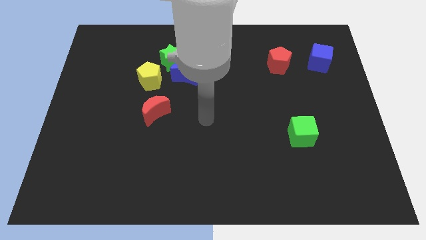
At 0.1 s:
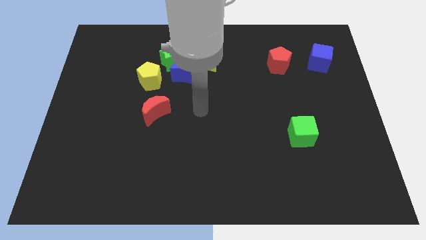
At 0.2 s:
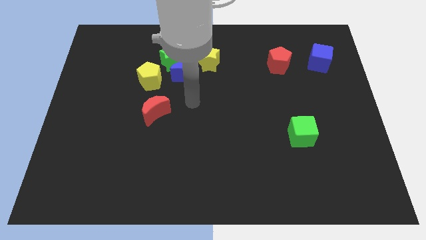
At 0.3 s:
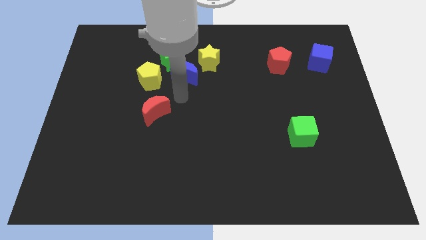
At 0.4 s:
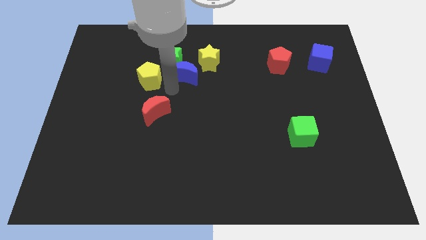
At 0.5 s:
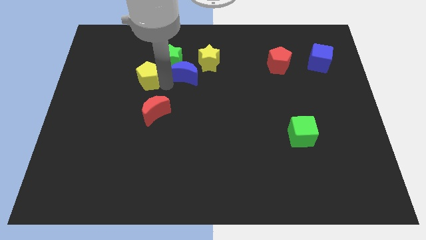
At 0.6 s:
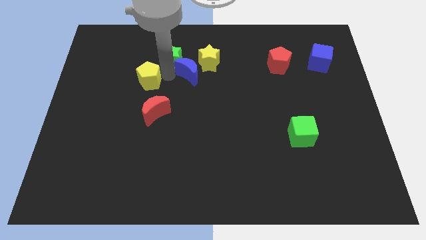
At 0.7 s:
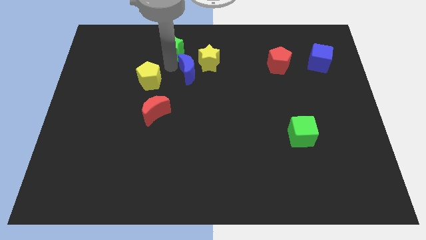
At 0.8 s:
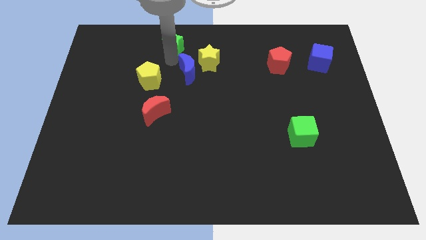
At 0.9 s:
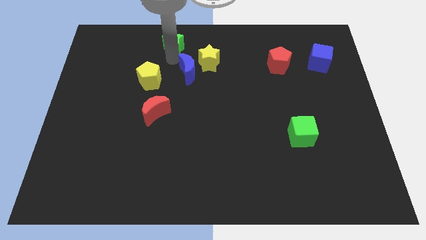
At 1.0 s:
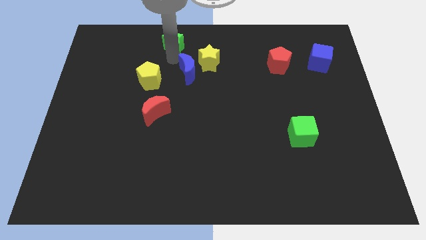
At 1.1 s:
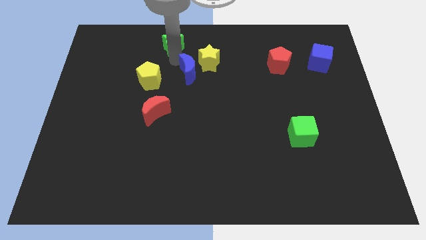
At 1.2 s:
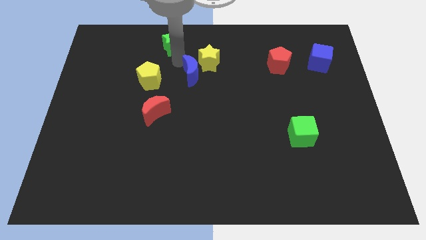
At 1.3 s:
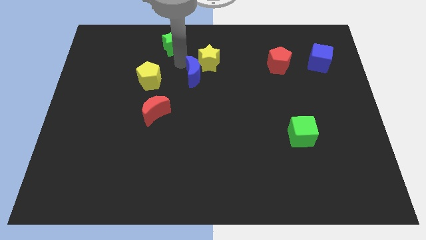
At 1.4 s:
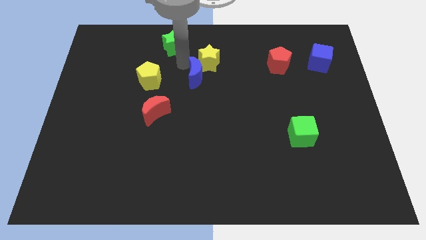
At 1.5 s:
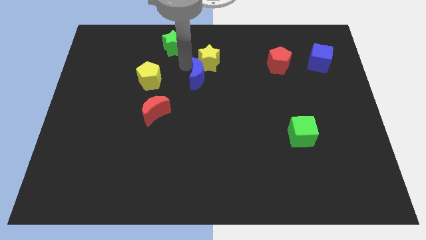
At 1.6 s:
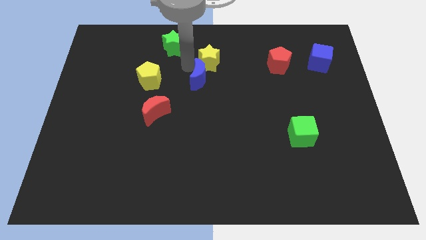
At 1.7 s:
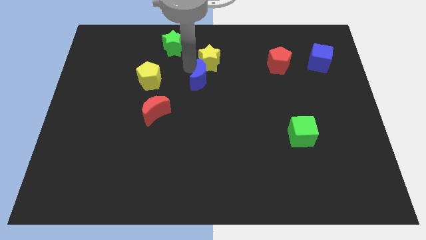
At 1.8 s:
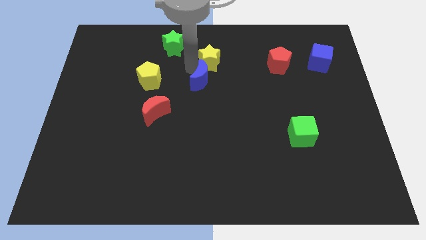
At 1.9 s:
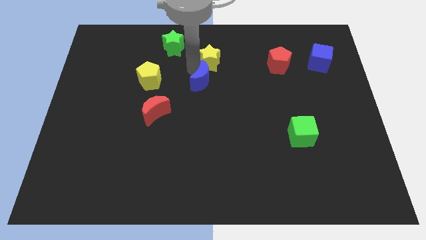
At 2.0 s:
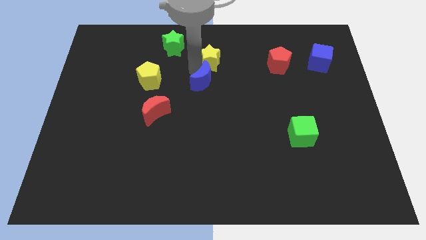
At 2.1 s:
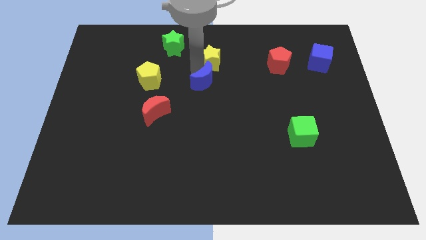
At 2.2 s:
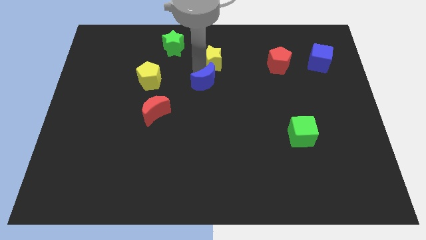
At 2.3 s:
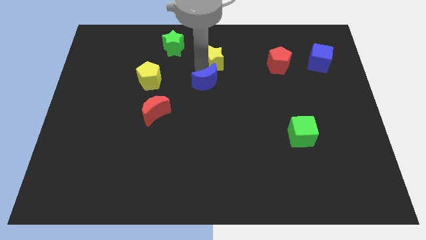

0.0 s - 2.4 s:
pull the blue moon apart from the group

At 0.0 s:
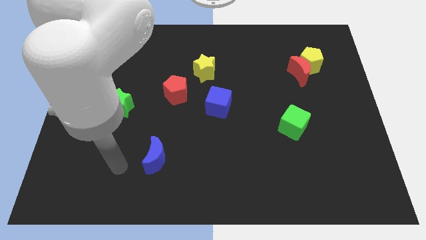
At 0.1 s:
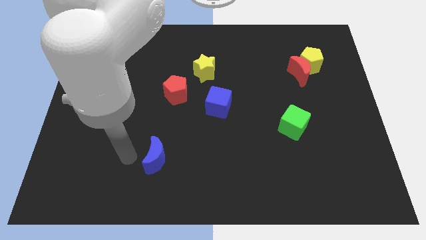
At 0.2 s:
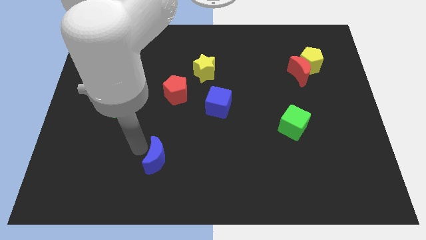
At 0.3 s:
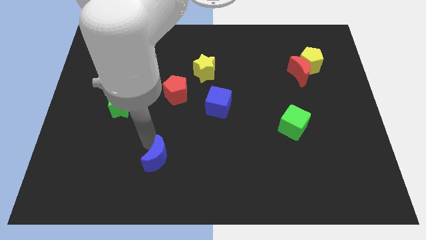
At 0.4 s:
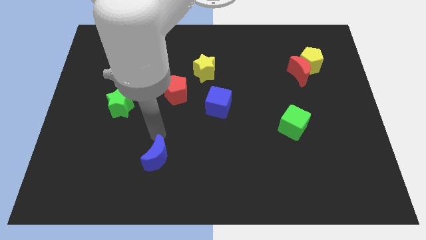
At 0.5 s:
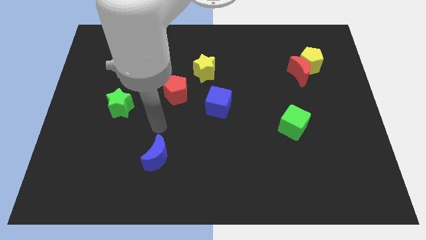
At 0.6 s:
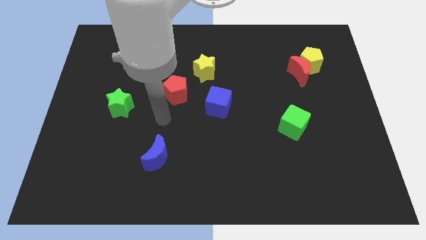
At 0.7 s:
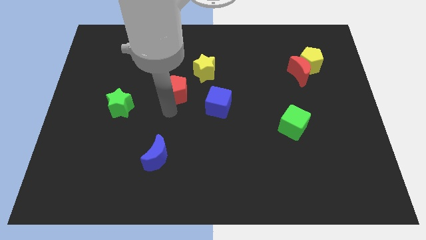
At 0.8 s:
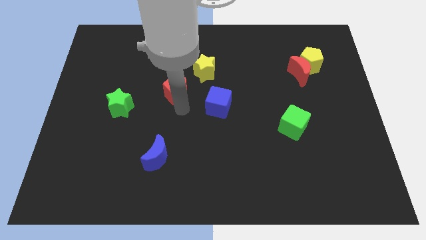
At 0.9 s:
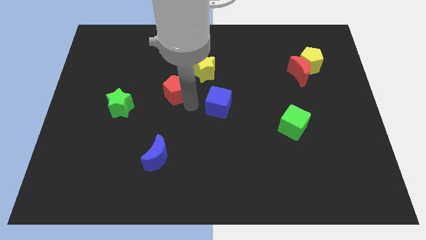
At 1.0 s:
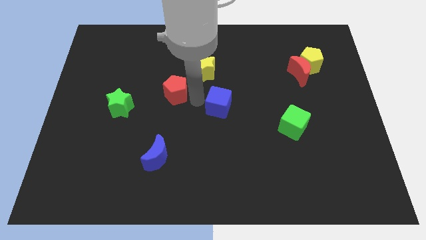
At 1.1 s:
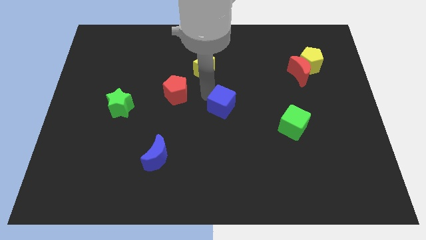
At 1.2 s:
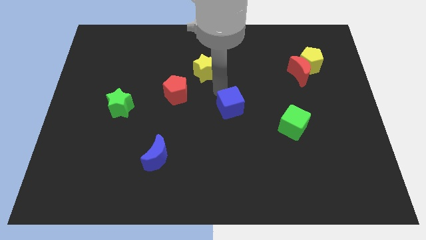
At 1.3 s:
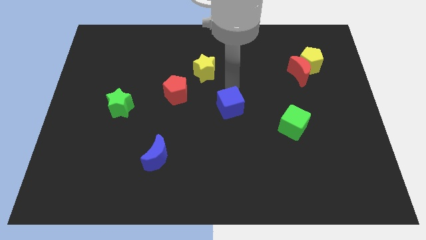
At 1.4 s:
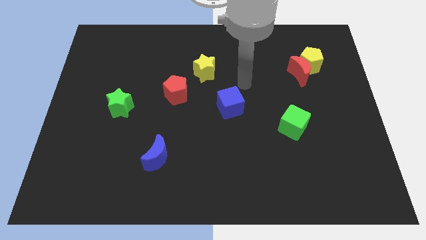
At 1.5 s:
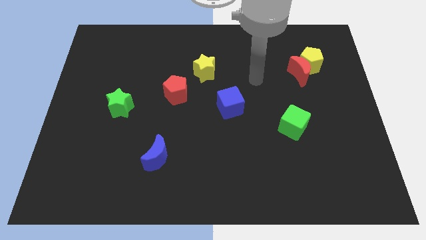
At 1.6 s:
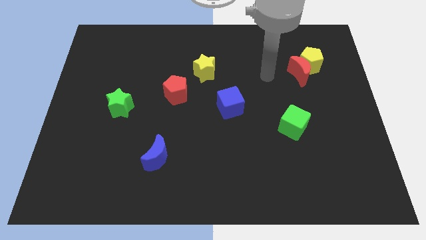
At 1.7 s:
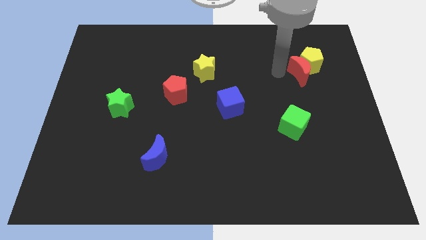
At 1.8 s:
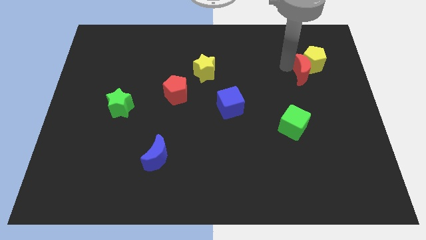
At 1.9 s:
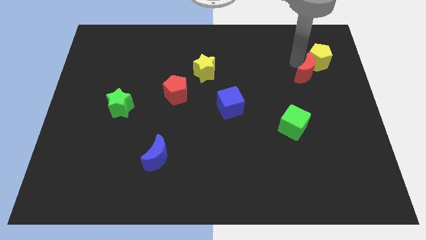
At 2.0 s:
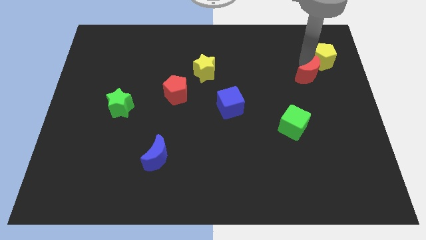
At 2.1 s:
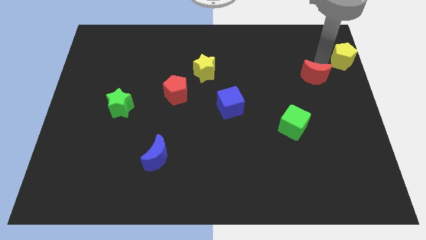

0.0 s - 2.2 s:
move the red moon away from the yellow pentagon

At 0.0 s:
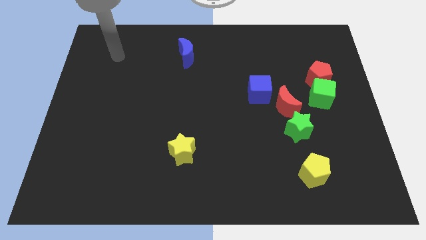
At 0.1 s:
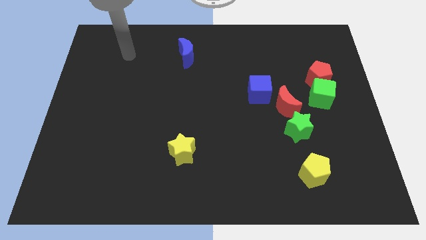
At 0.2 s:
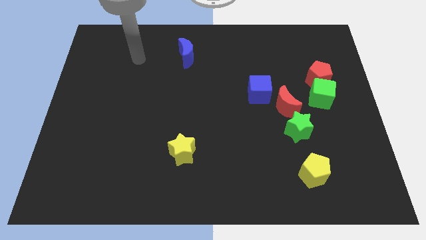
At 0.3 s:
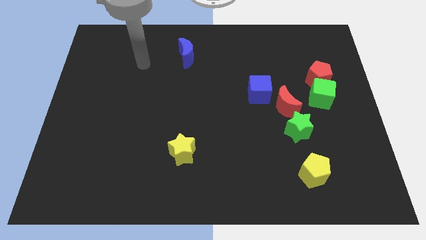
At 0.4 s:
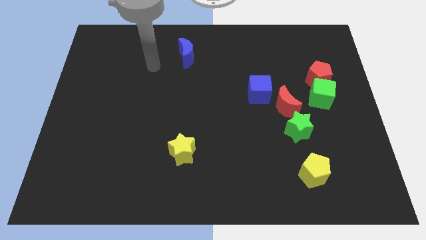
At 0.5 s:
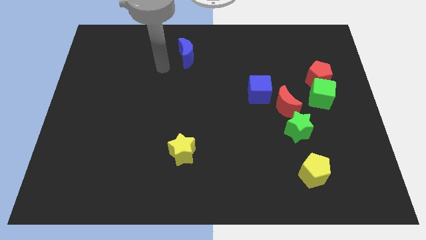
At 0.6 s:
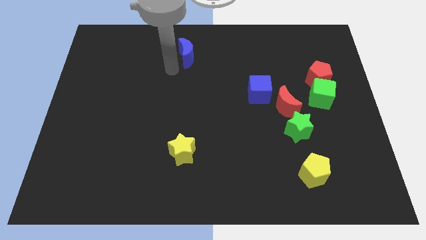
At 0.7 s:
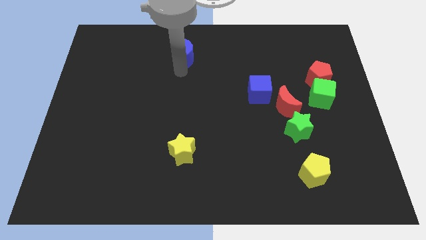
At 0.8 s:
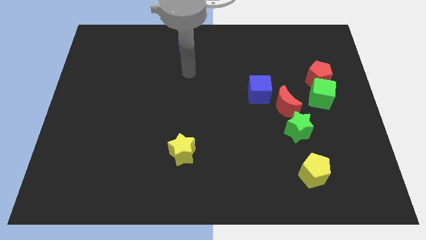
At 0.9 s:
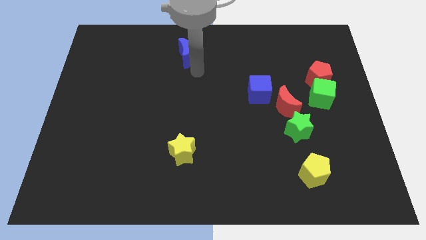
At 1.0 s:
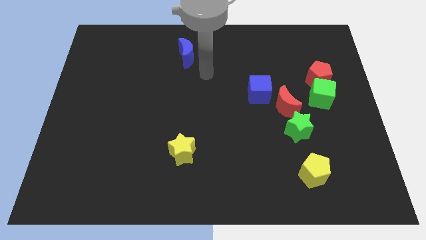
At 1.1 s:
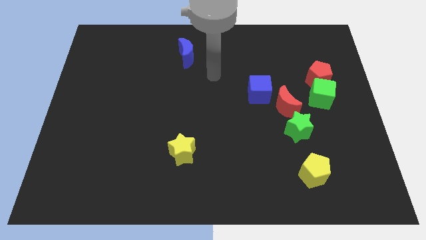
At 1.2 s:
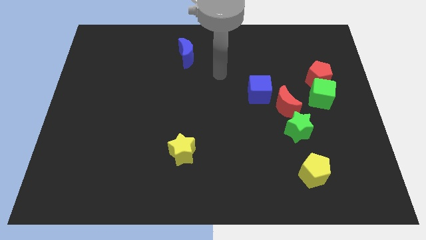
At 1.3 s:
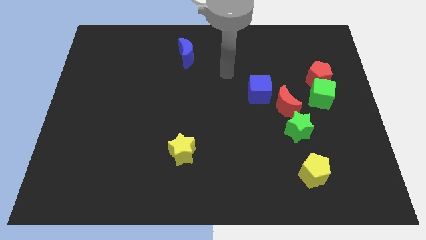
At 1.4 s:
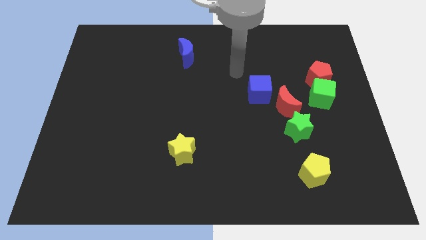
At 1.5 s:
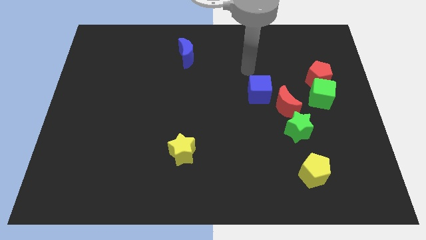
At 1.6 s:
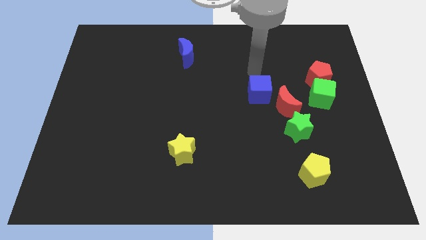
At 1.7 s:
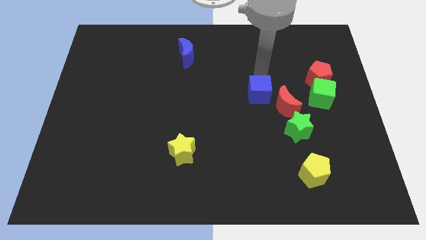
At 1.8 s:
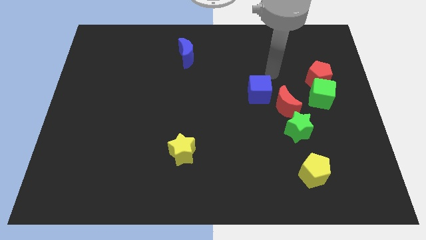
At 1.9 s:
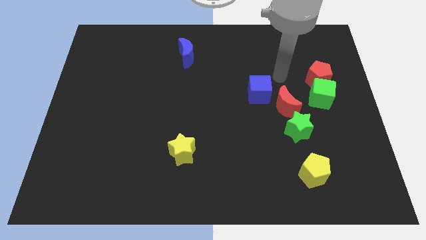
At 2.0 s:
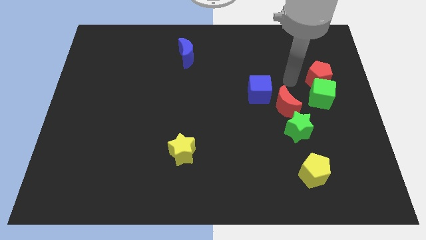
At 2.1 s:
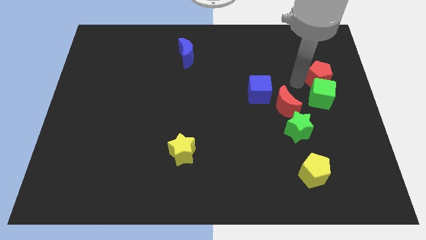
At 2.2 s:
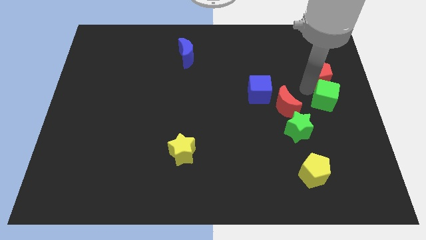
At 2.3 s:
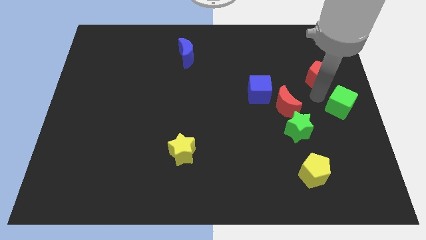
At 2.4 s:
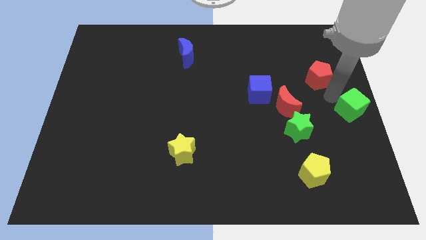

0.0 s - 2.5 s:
move the red pentagon away from the green cube

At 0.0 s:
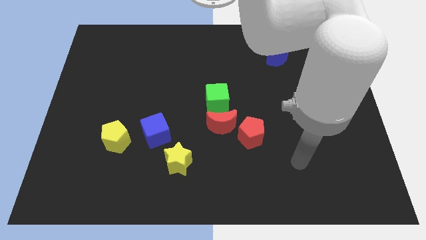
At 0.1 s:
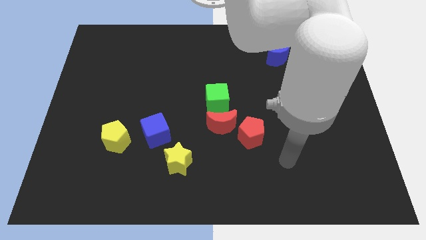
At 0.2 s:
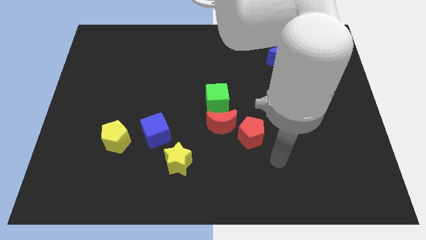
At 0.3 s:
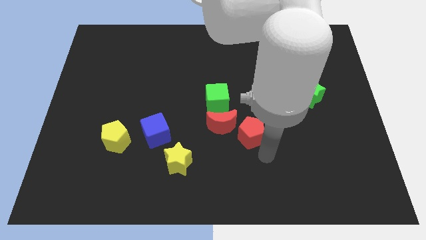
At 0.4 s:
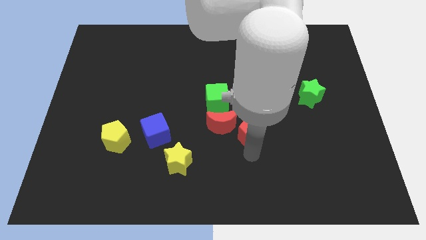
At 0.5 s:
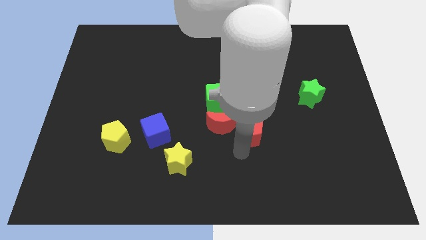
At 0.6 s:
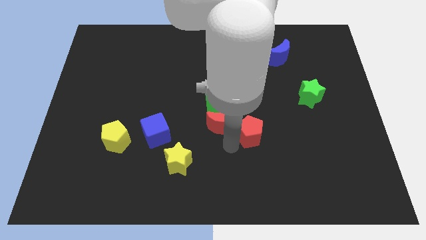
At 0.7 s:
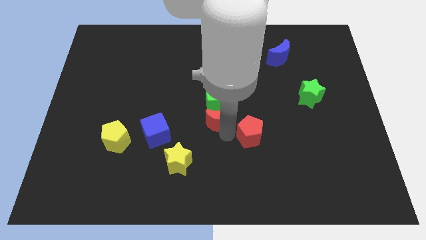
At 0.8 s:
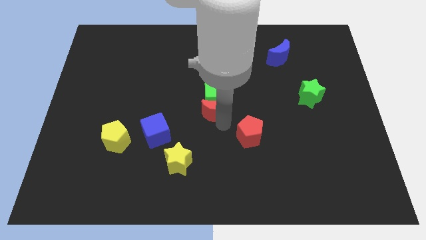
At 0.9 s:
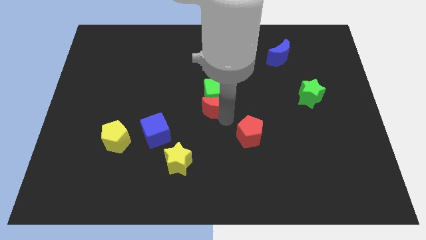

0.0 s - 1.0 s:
separate the red pentagon from the red moon

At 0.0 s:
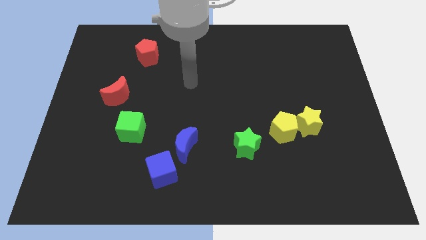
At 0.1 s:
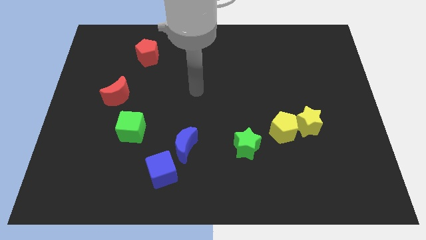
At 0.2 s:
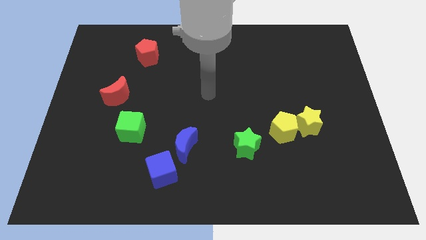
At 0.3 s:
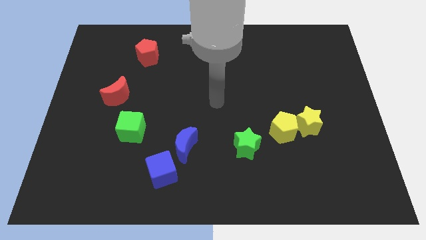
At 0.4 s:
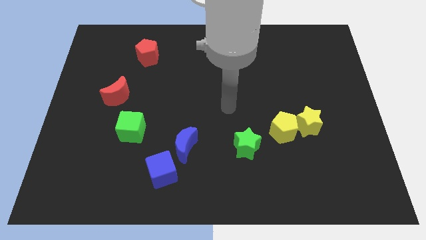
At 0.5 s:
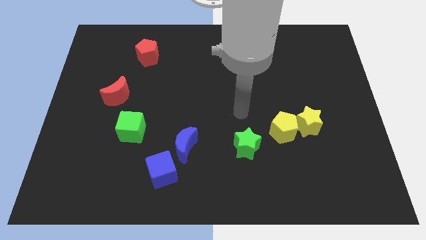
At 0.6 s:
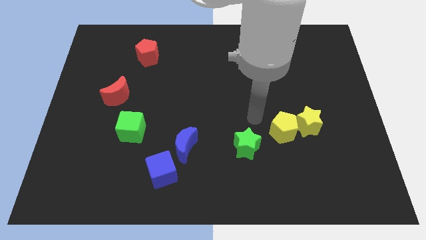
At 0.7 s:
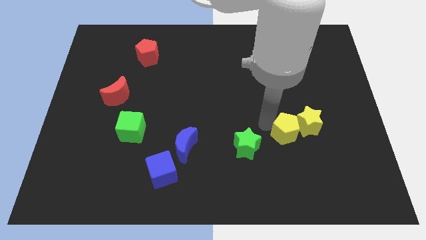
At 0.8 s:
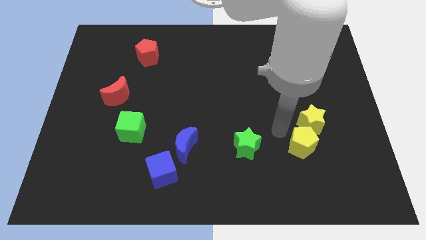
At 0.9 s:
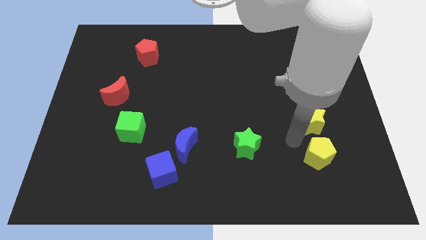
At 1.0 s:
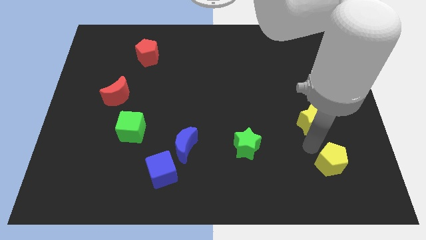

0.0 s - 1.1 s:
separate the yellow star from the yellow pentagon
